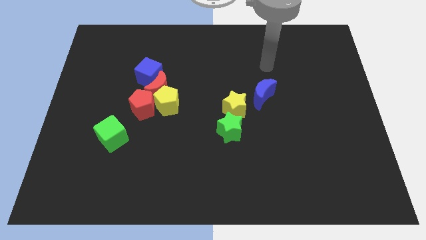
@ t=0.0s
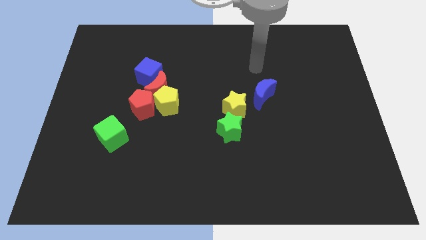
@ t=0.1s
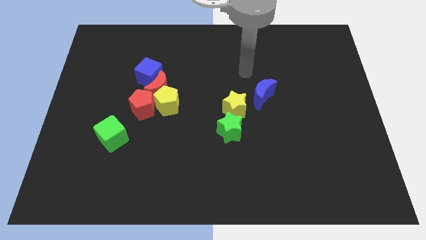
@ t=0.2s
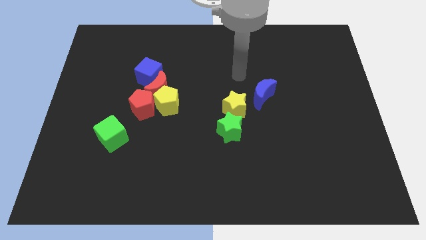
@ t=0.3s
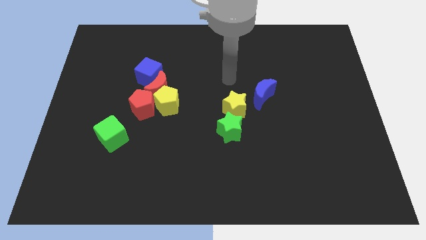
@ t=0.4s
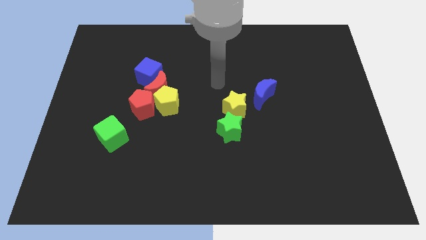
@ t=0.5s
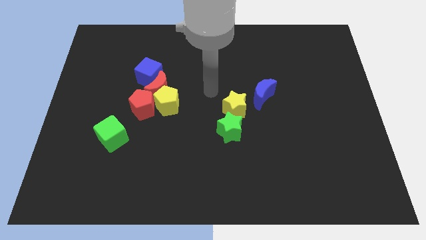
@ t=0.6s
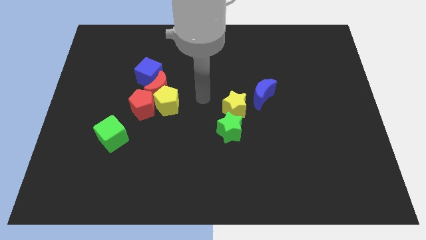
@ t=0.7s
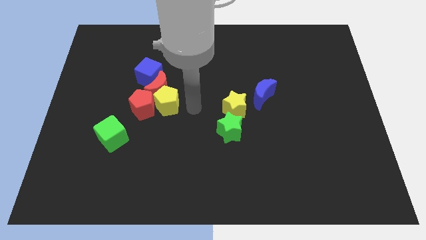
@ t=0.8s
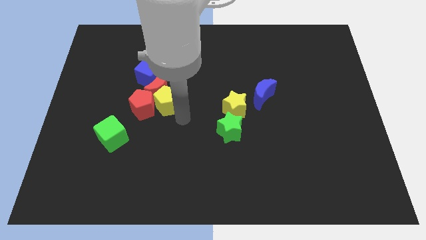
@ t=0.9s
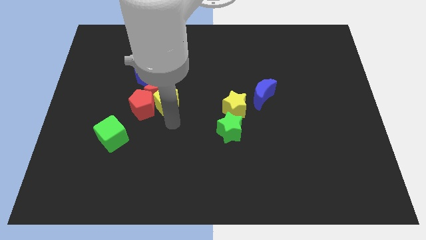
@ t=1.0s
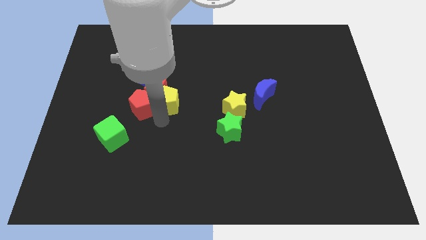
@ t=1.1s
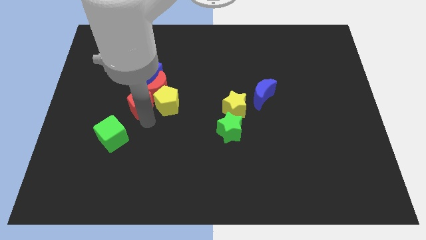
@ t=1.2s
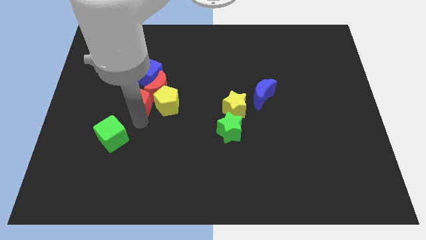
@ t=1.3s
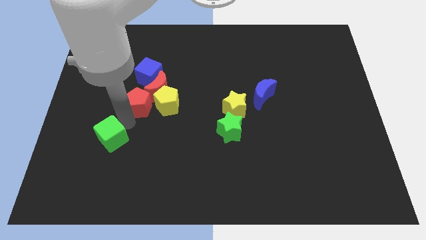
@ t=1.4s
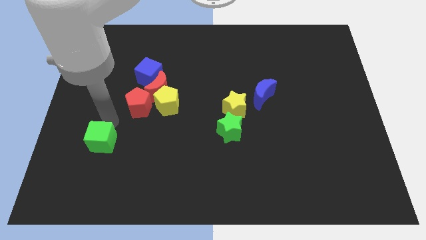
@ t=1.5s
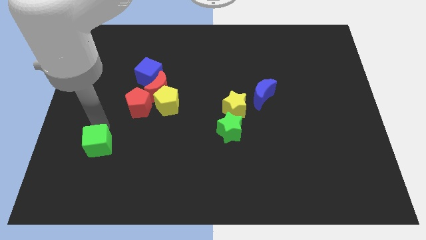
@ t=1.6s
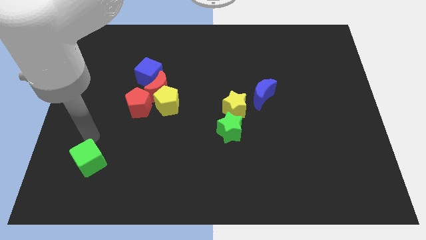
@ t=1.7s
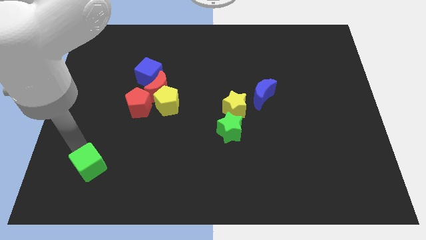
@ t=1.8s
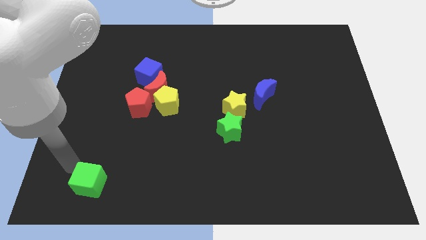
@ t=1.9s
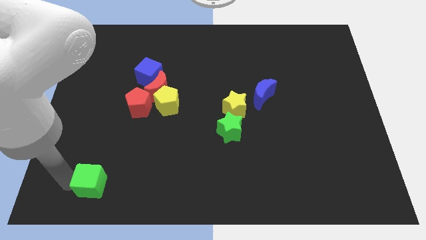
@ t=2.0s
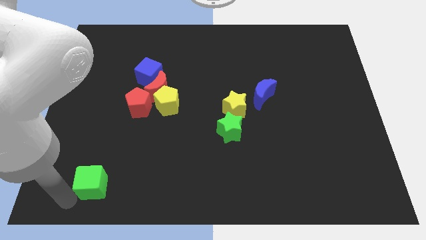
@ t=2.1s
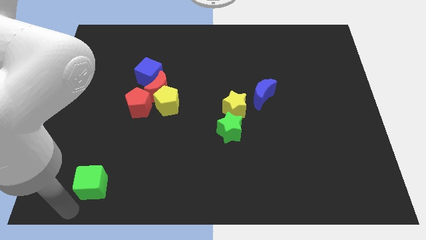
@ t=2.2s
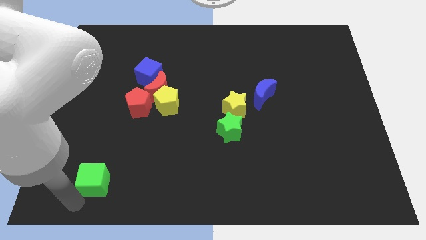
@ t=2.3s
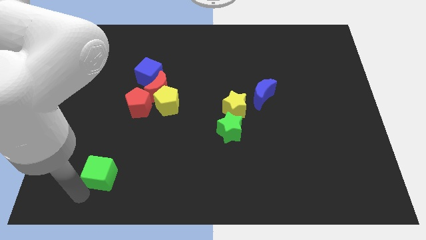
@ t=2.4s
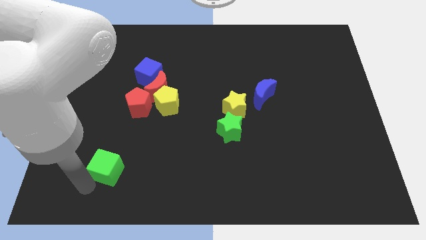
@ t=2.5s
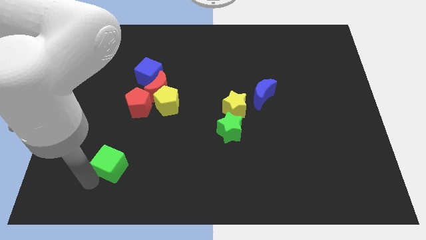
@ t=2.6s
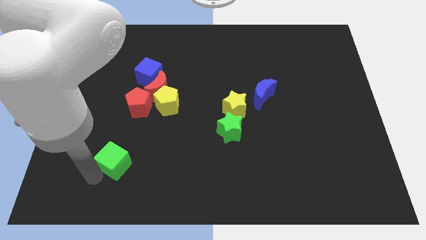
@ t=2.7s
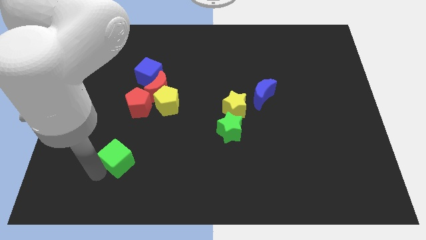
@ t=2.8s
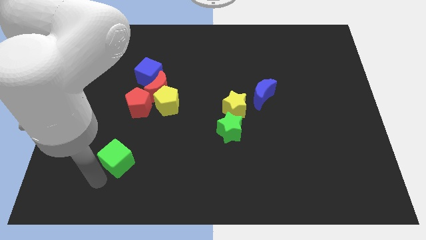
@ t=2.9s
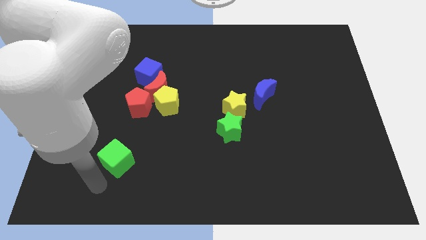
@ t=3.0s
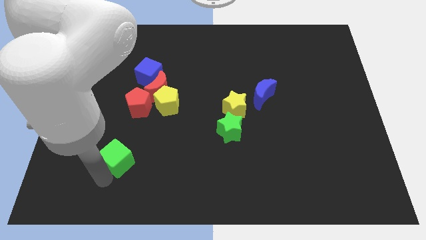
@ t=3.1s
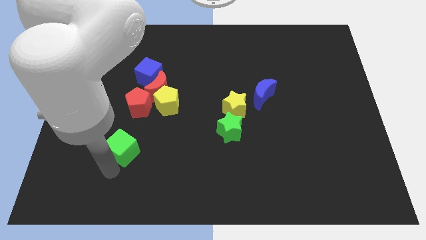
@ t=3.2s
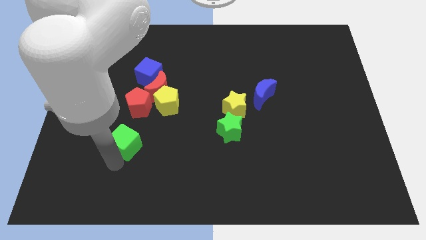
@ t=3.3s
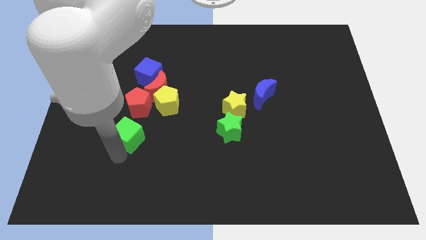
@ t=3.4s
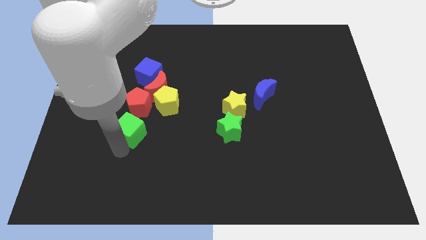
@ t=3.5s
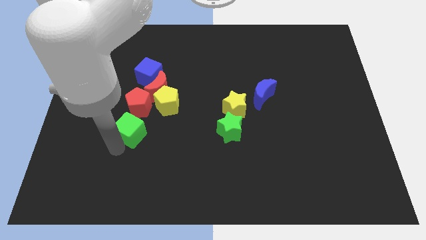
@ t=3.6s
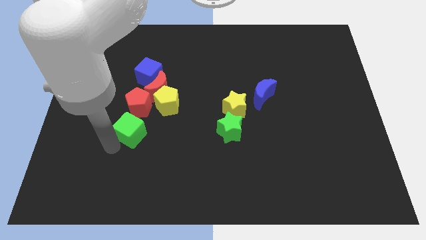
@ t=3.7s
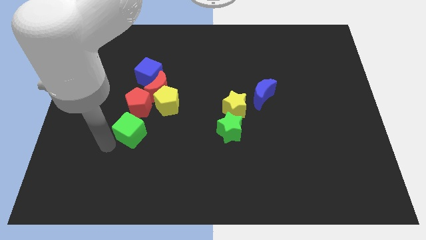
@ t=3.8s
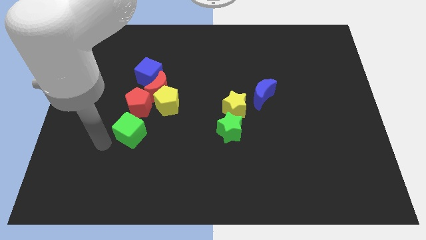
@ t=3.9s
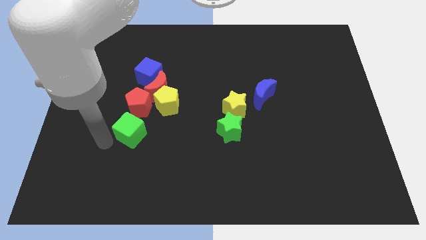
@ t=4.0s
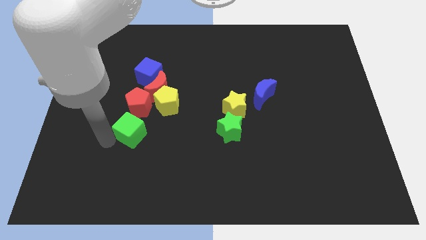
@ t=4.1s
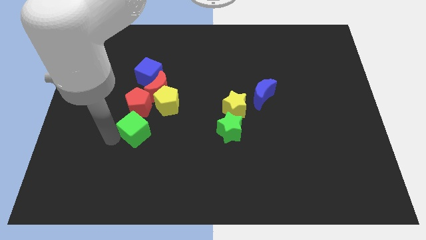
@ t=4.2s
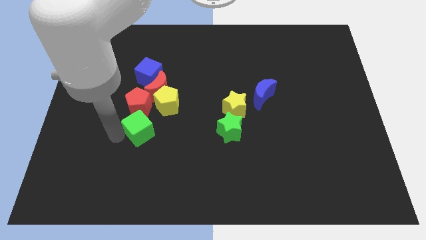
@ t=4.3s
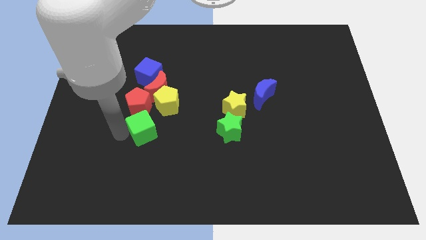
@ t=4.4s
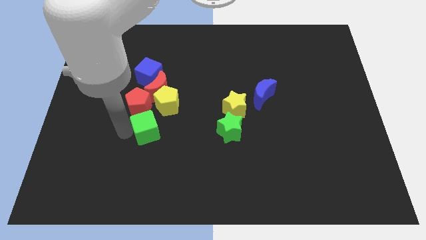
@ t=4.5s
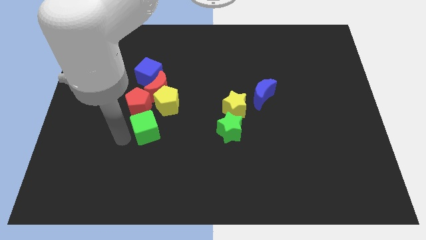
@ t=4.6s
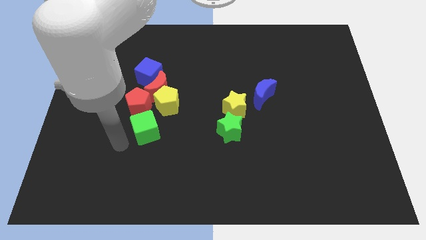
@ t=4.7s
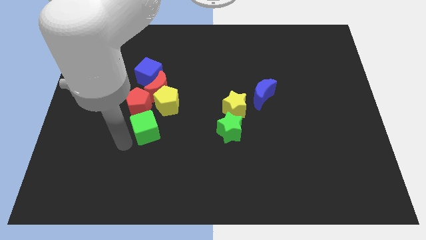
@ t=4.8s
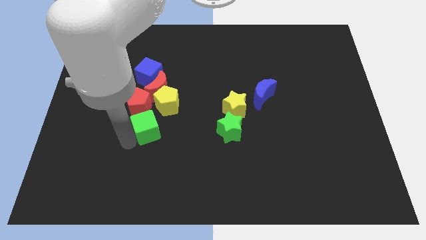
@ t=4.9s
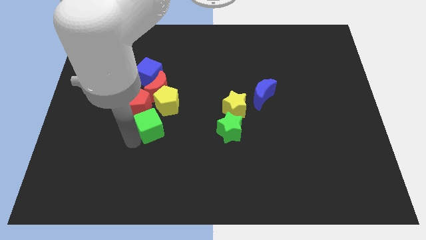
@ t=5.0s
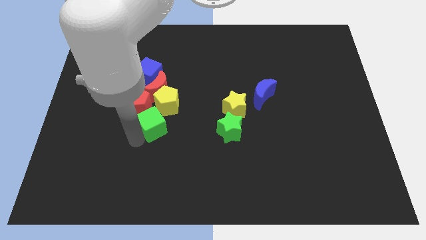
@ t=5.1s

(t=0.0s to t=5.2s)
slightly push the green cube upwards and to the right diagonally

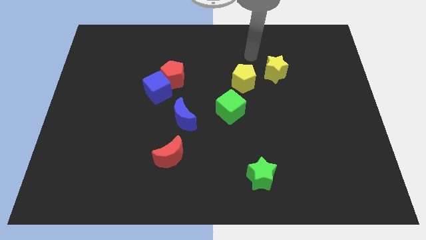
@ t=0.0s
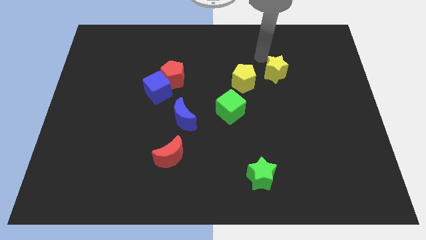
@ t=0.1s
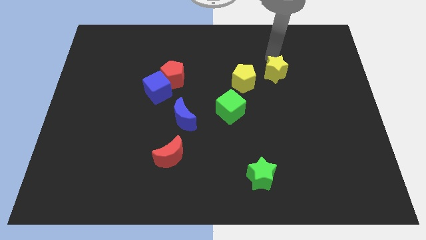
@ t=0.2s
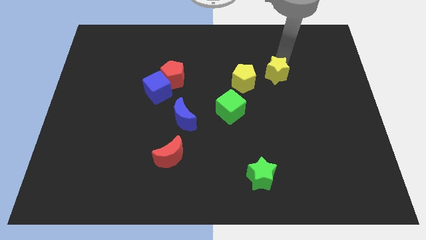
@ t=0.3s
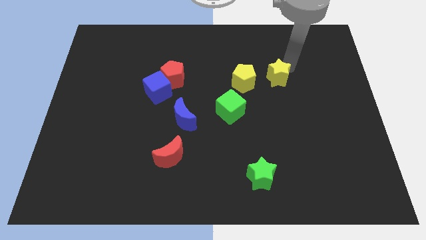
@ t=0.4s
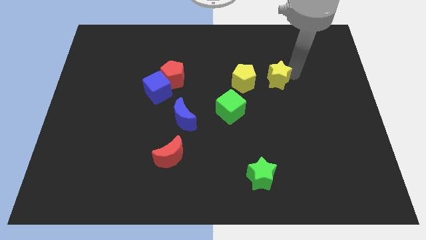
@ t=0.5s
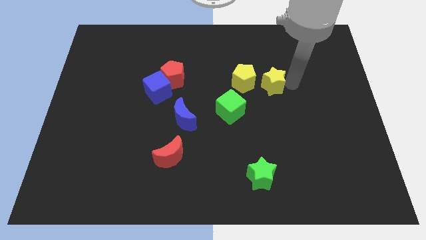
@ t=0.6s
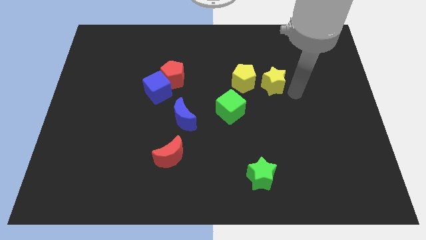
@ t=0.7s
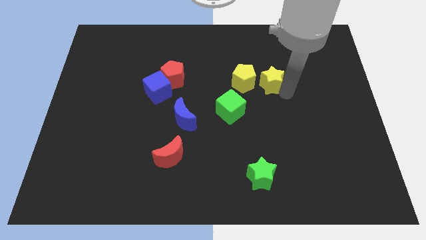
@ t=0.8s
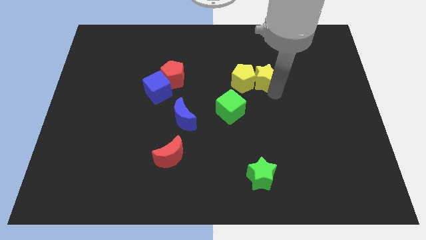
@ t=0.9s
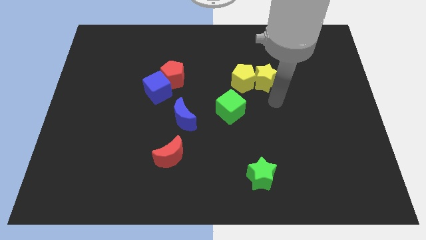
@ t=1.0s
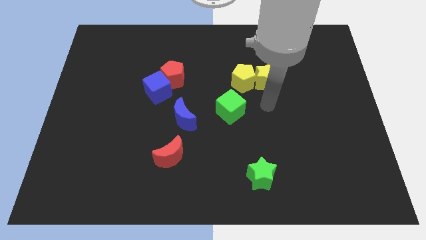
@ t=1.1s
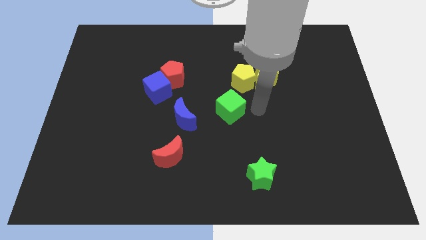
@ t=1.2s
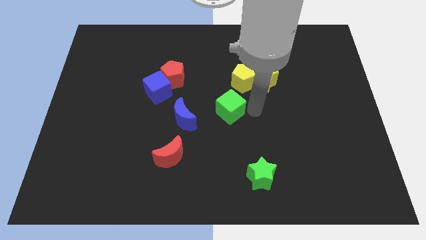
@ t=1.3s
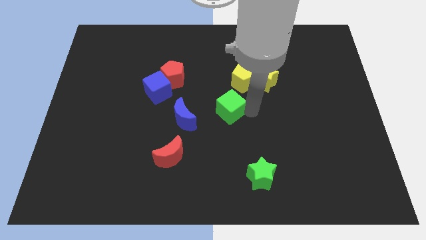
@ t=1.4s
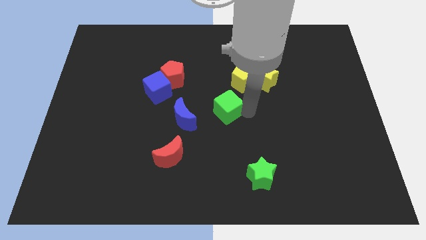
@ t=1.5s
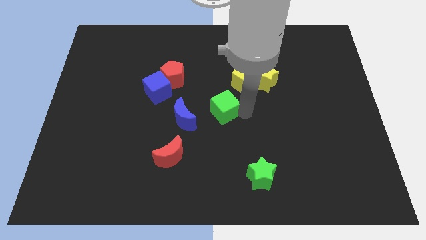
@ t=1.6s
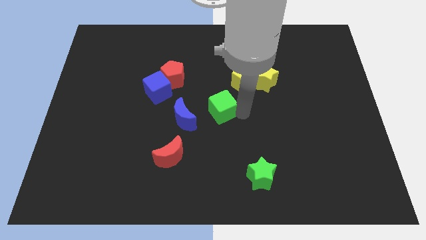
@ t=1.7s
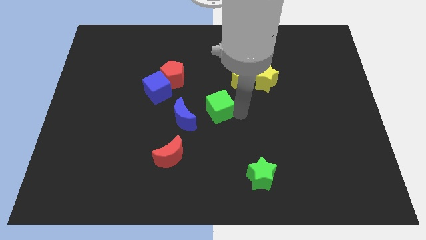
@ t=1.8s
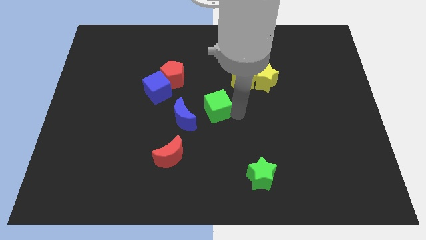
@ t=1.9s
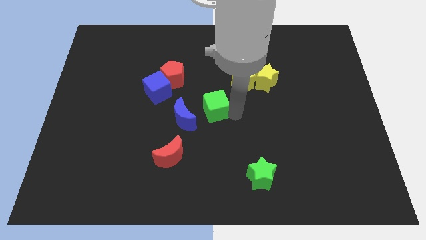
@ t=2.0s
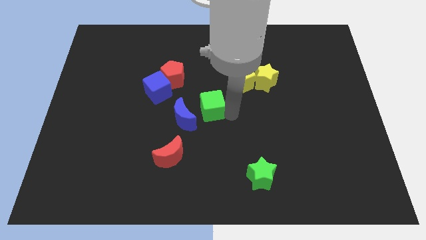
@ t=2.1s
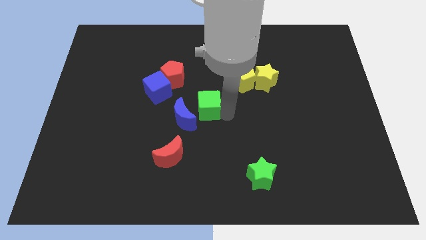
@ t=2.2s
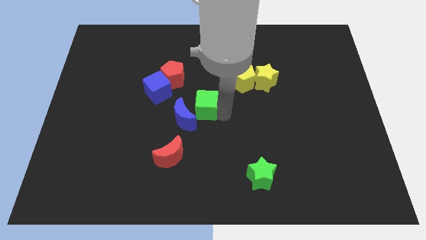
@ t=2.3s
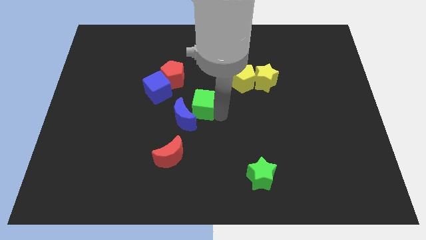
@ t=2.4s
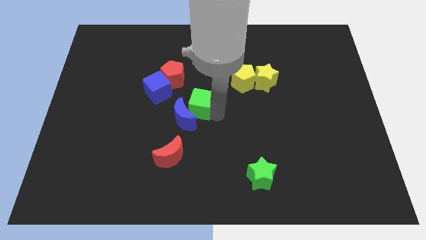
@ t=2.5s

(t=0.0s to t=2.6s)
push the green cube to the left a little bit
